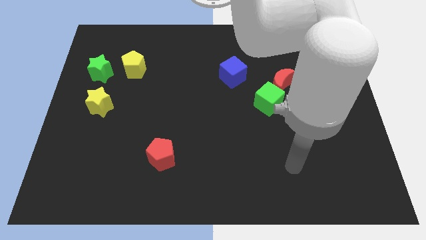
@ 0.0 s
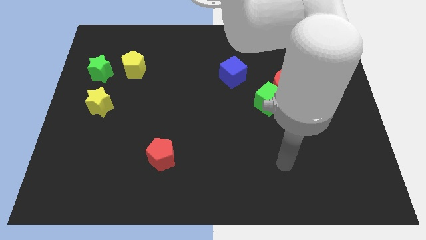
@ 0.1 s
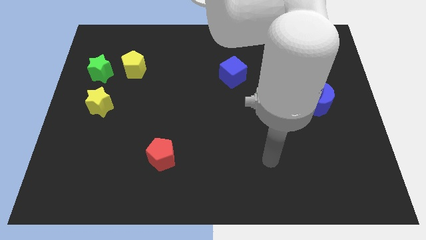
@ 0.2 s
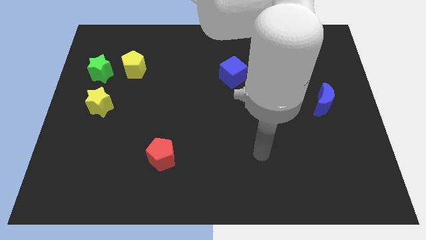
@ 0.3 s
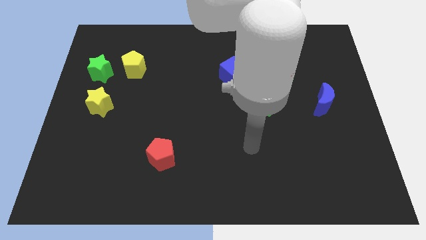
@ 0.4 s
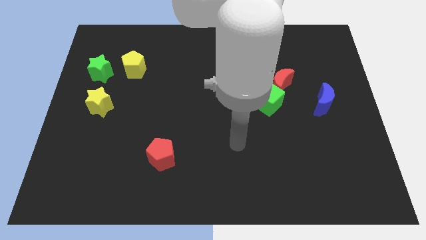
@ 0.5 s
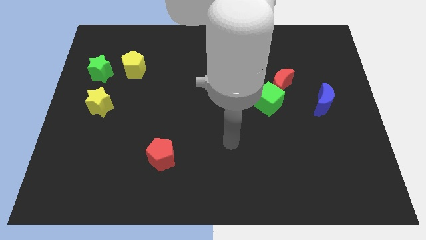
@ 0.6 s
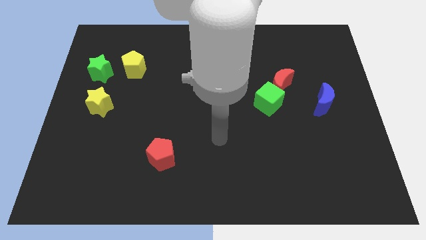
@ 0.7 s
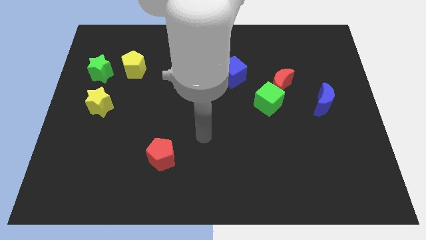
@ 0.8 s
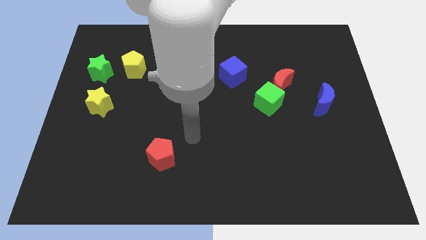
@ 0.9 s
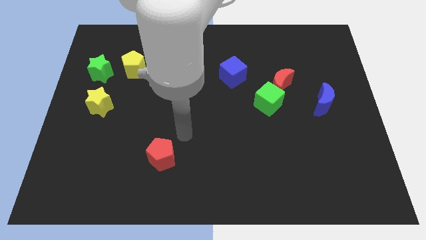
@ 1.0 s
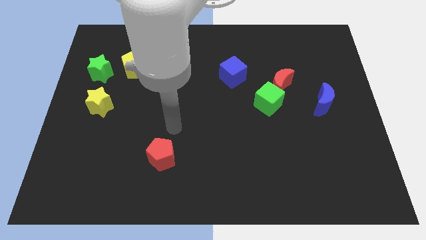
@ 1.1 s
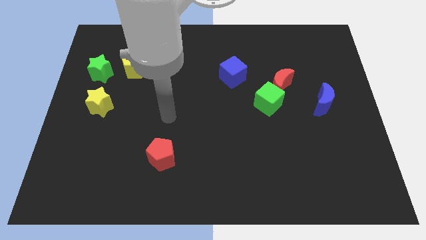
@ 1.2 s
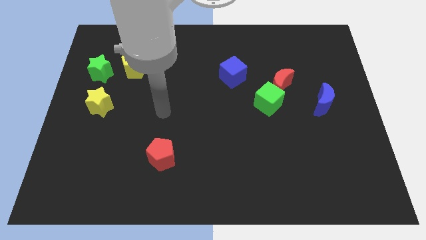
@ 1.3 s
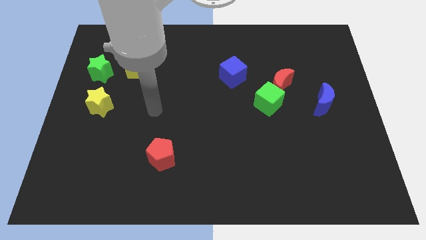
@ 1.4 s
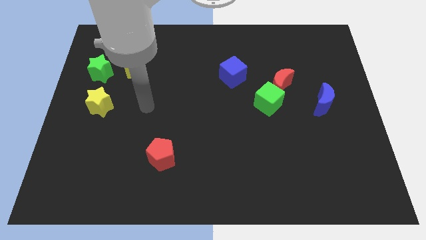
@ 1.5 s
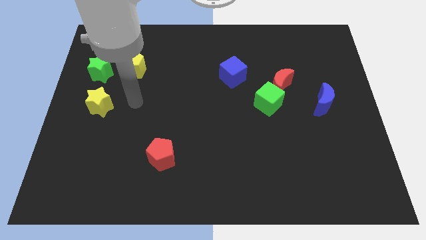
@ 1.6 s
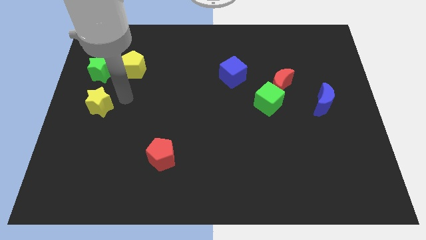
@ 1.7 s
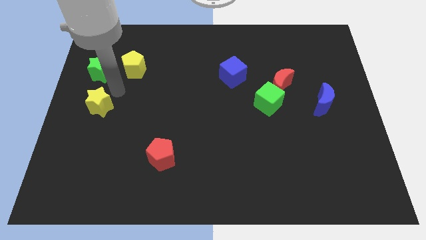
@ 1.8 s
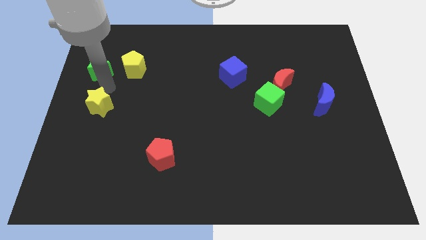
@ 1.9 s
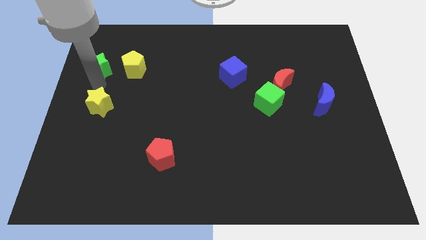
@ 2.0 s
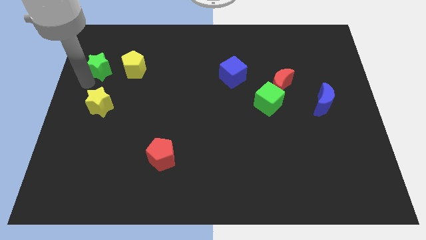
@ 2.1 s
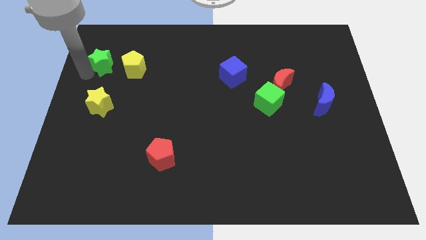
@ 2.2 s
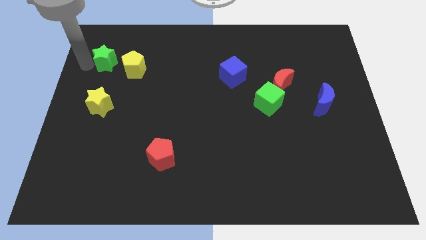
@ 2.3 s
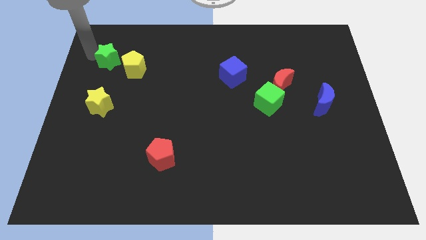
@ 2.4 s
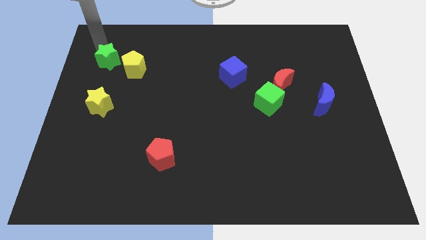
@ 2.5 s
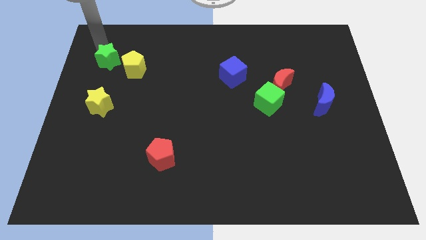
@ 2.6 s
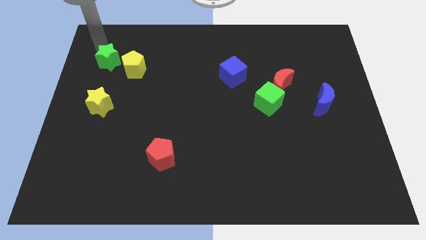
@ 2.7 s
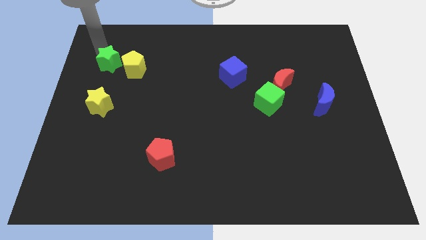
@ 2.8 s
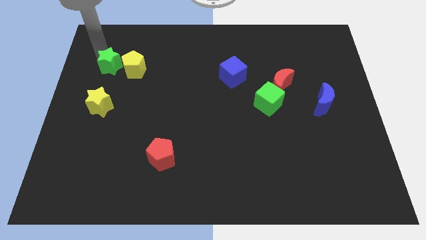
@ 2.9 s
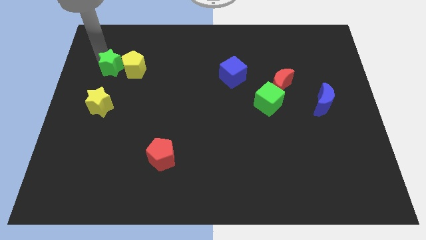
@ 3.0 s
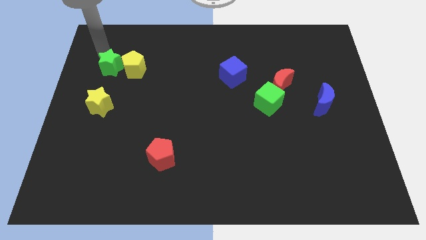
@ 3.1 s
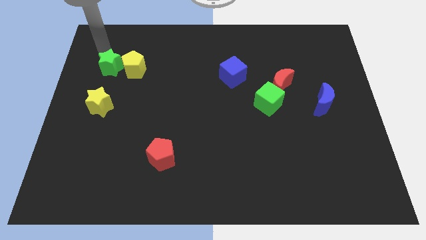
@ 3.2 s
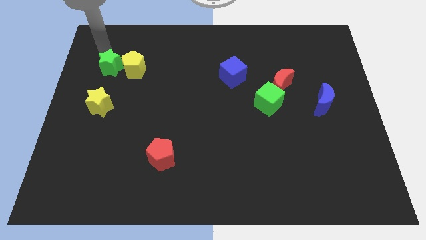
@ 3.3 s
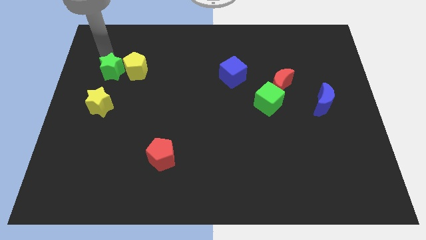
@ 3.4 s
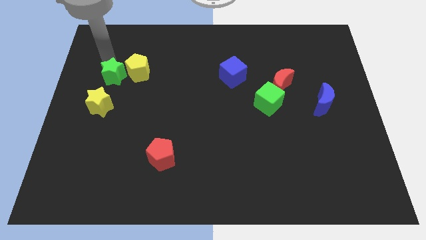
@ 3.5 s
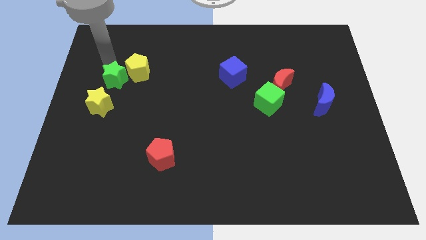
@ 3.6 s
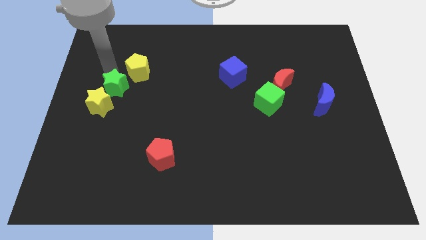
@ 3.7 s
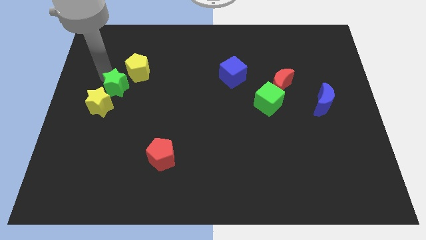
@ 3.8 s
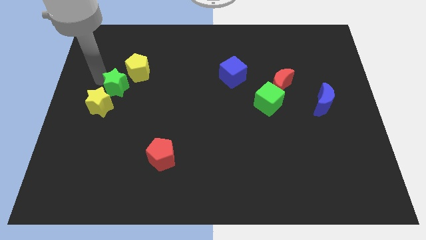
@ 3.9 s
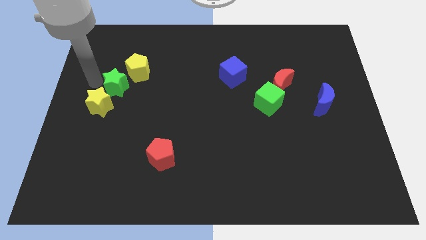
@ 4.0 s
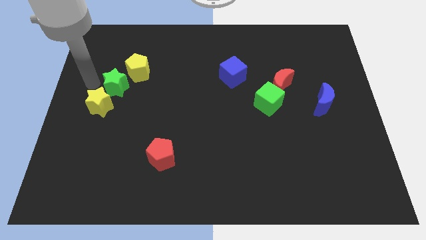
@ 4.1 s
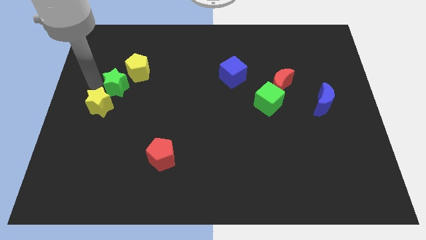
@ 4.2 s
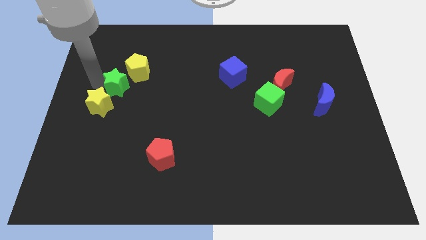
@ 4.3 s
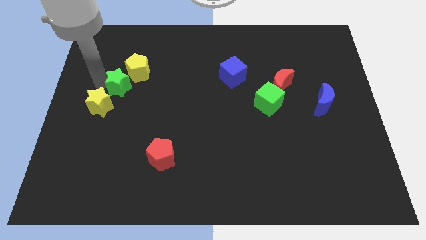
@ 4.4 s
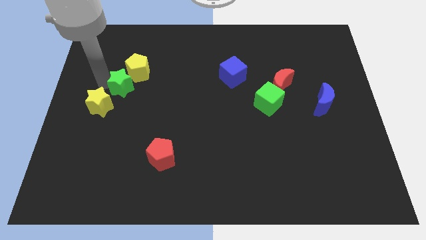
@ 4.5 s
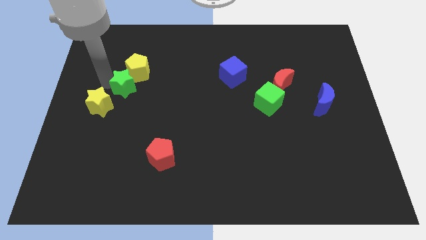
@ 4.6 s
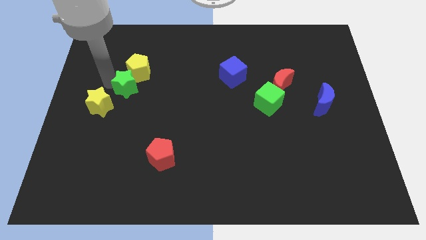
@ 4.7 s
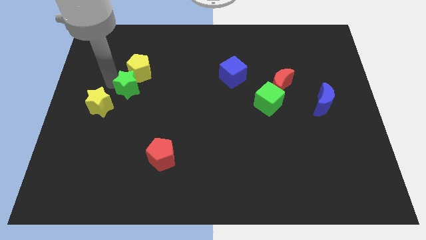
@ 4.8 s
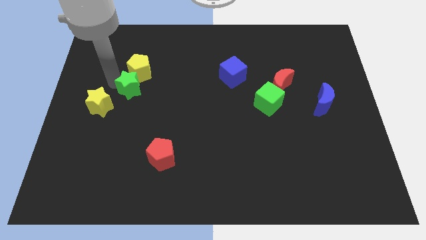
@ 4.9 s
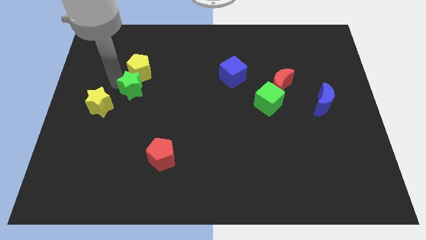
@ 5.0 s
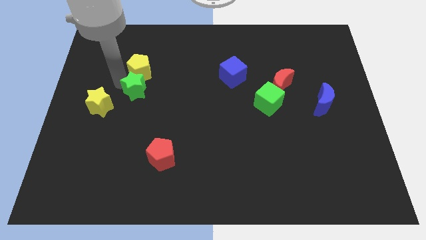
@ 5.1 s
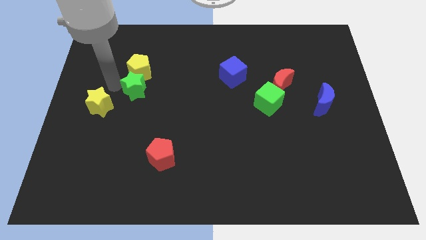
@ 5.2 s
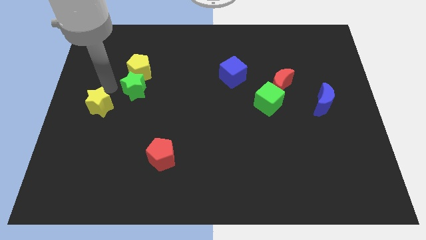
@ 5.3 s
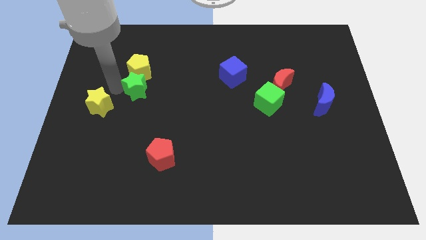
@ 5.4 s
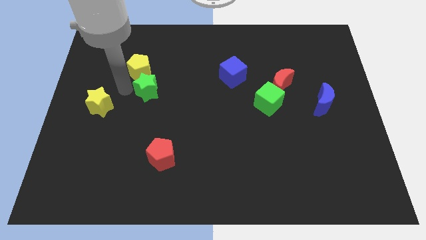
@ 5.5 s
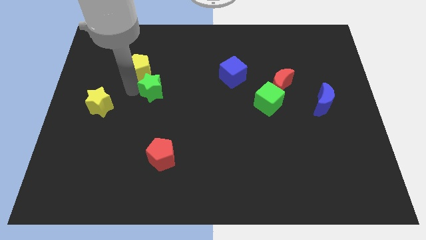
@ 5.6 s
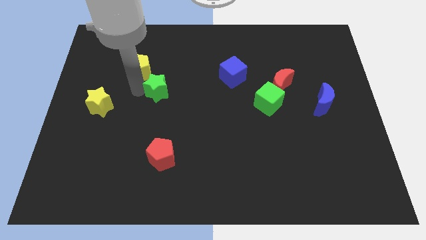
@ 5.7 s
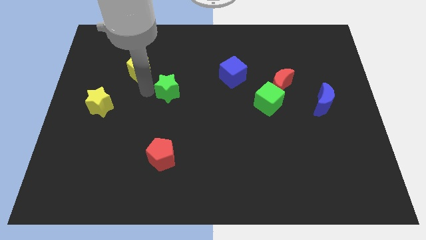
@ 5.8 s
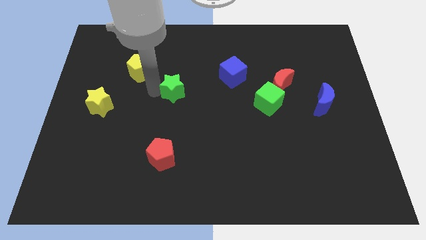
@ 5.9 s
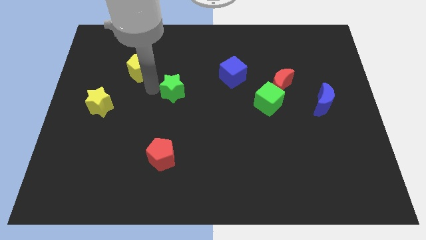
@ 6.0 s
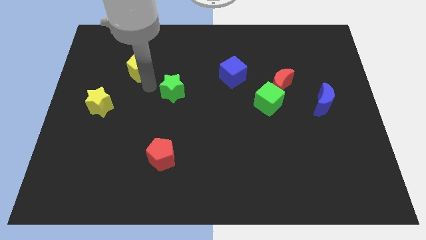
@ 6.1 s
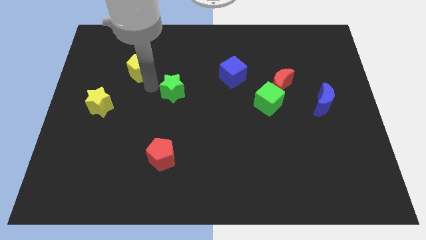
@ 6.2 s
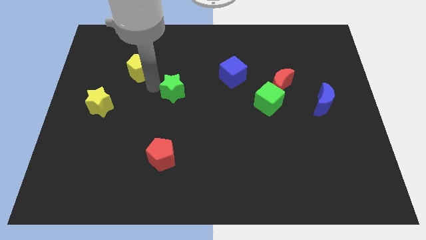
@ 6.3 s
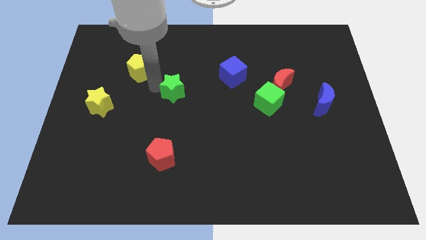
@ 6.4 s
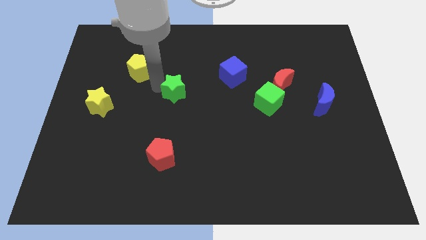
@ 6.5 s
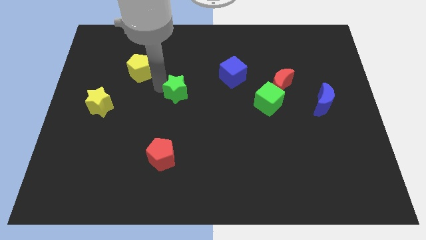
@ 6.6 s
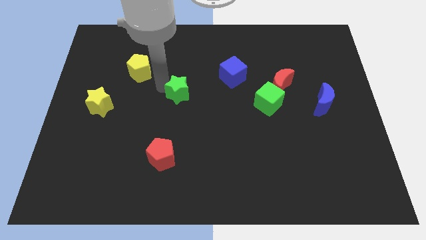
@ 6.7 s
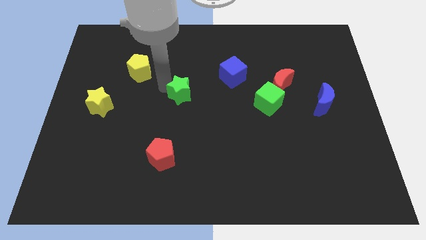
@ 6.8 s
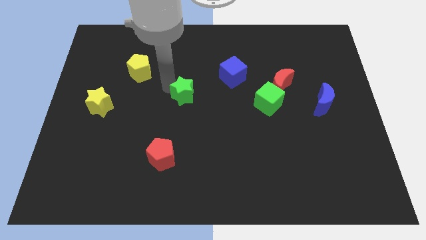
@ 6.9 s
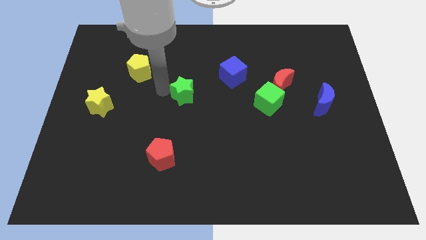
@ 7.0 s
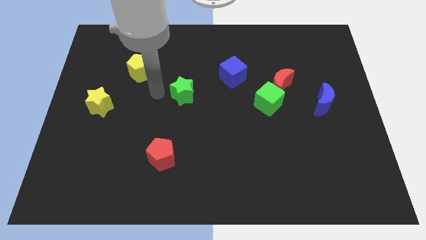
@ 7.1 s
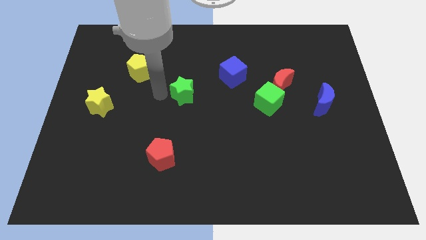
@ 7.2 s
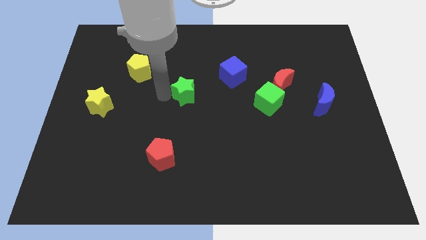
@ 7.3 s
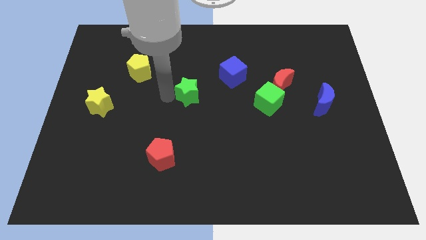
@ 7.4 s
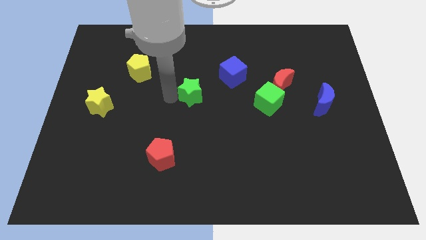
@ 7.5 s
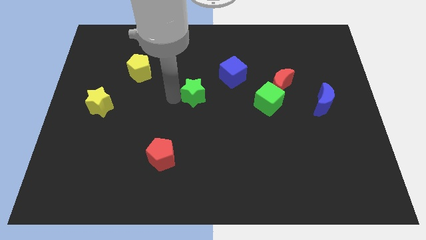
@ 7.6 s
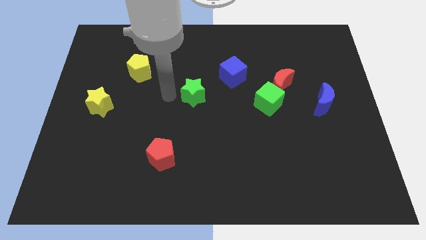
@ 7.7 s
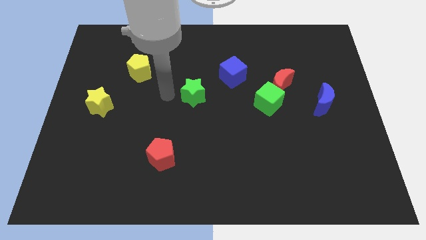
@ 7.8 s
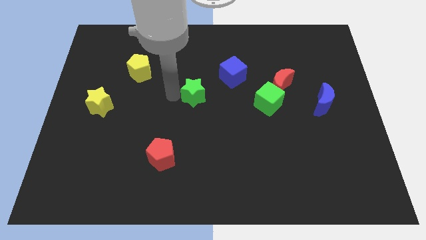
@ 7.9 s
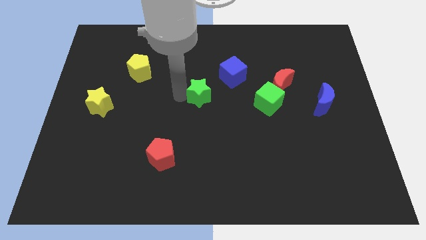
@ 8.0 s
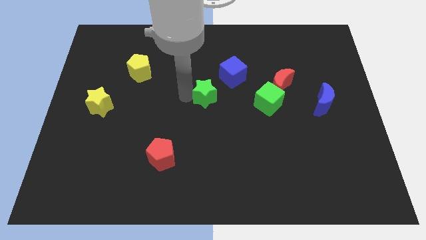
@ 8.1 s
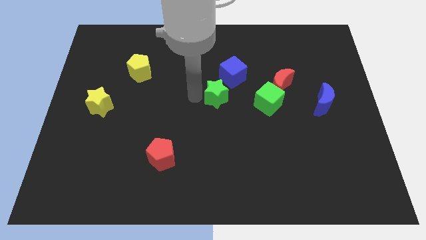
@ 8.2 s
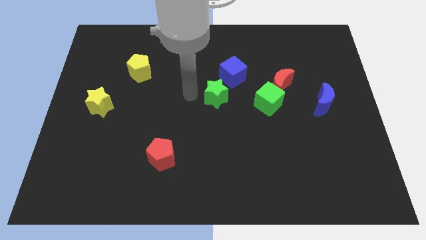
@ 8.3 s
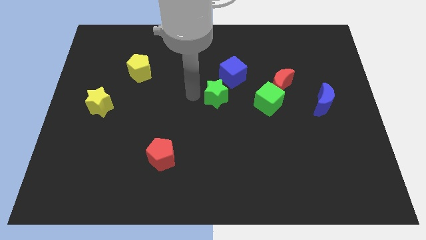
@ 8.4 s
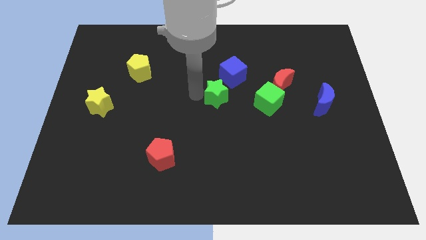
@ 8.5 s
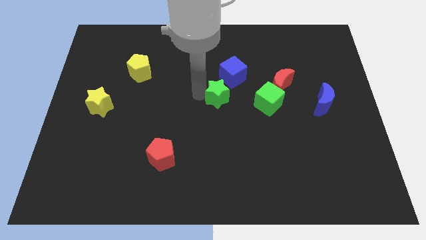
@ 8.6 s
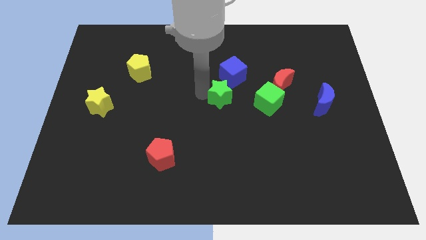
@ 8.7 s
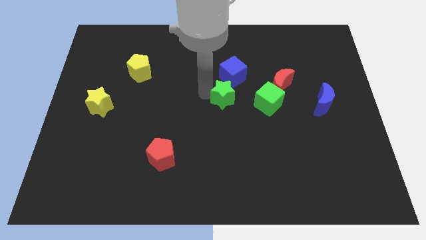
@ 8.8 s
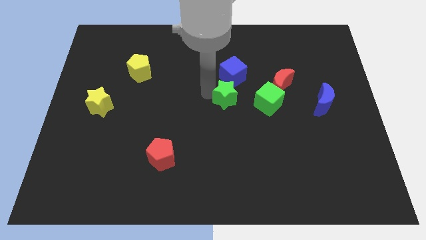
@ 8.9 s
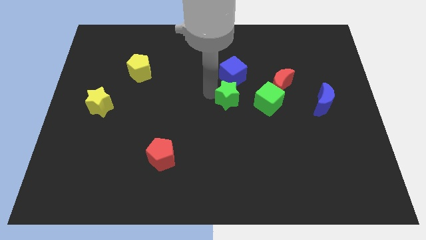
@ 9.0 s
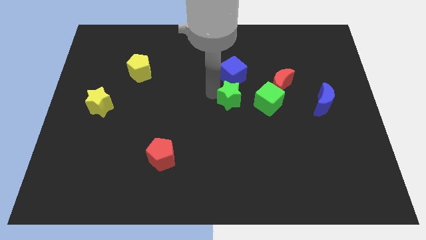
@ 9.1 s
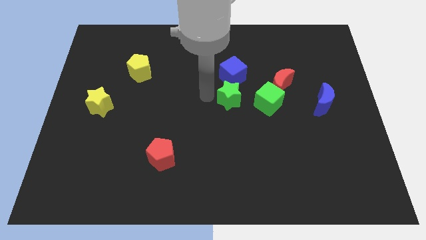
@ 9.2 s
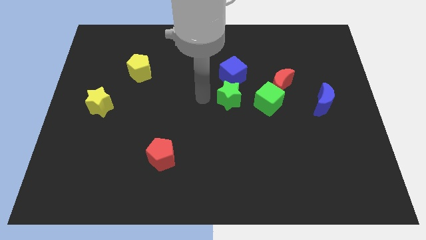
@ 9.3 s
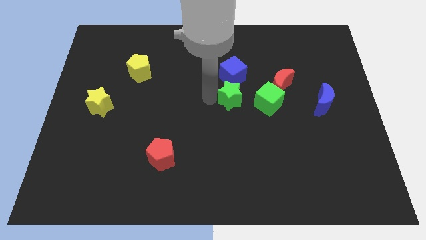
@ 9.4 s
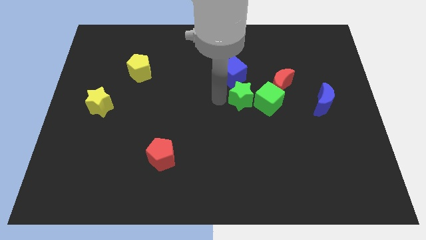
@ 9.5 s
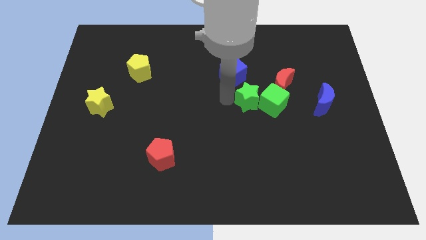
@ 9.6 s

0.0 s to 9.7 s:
move the green star towards the green cube
